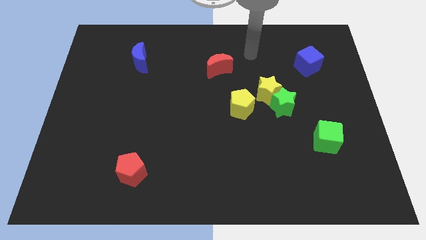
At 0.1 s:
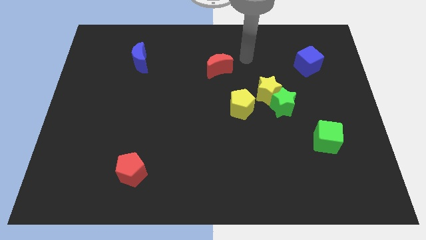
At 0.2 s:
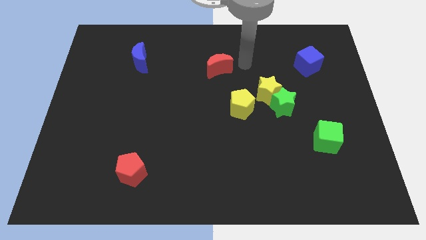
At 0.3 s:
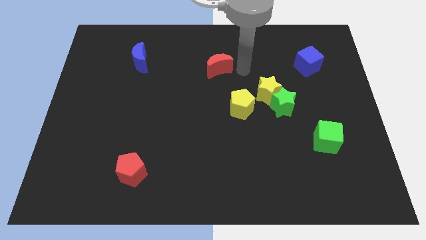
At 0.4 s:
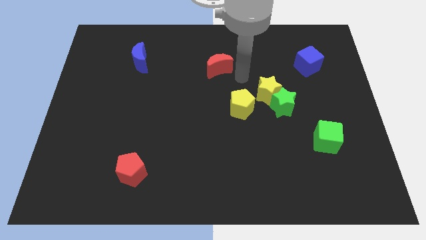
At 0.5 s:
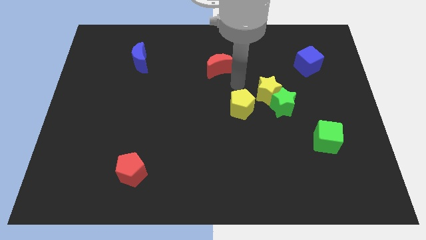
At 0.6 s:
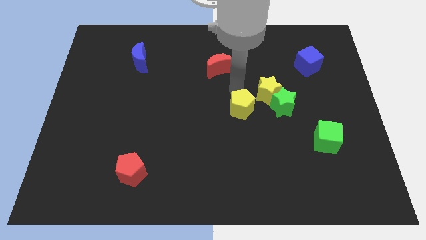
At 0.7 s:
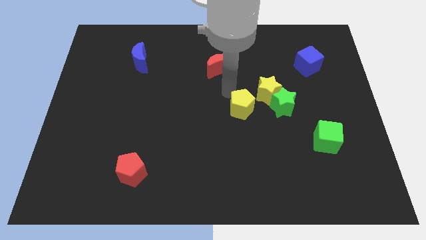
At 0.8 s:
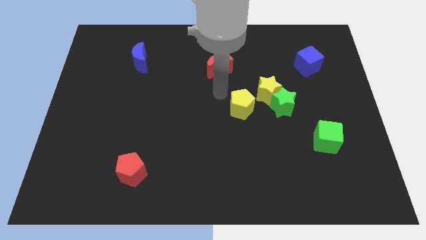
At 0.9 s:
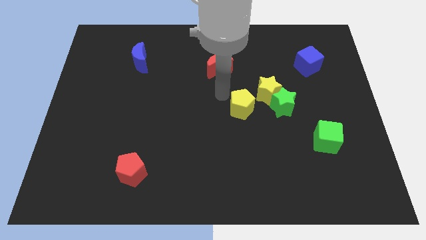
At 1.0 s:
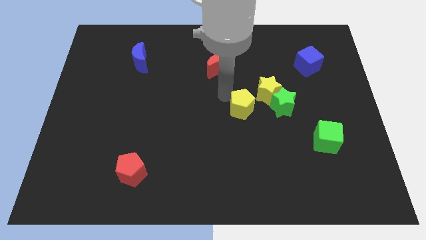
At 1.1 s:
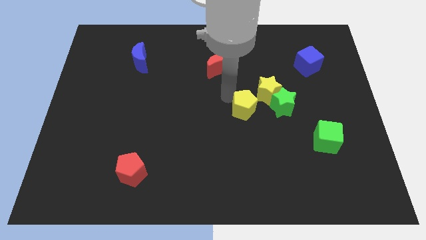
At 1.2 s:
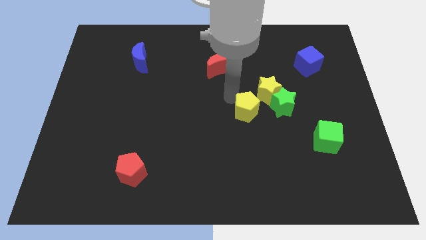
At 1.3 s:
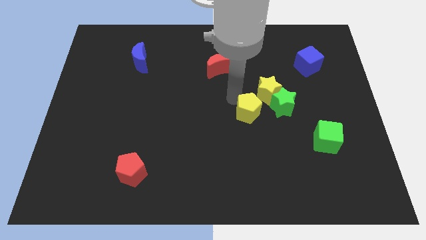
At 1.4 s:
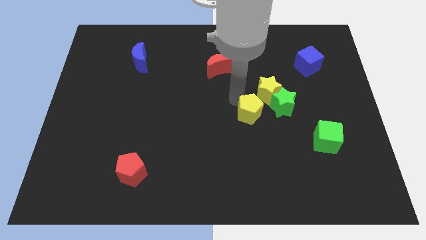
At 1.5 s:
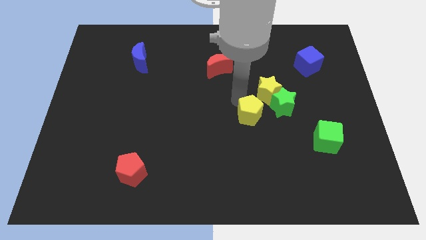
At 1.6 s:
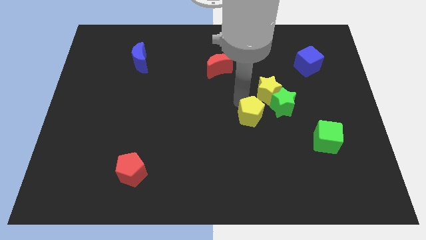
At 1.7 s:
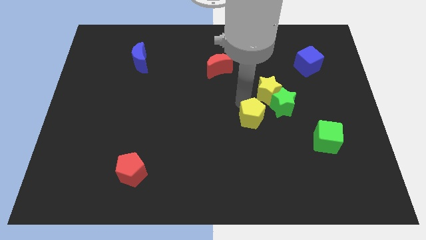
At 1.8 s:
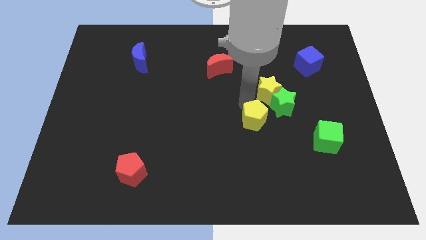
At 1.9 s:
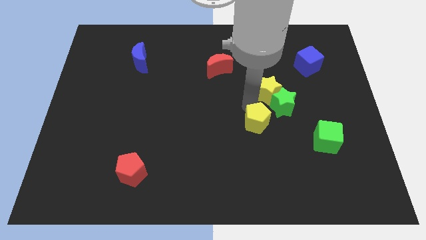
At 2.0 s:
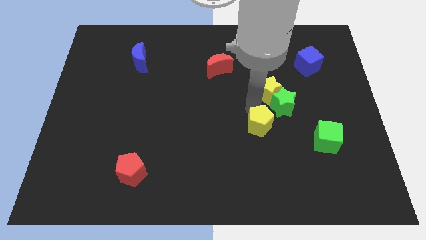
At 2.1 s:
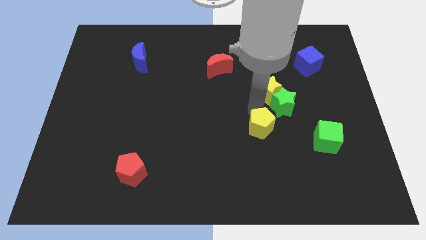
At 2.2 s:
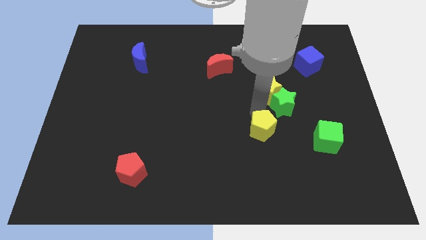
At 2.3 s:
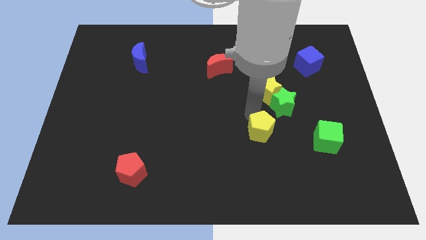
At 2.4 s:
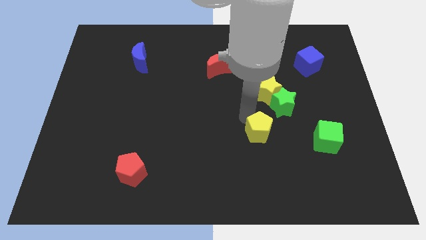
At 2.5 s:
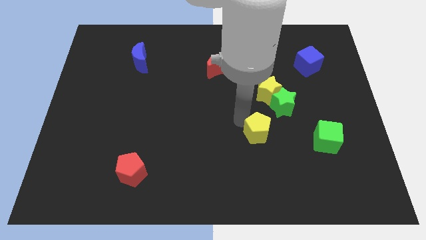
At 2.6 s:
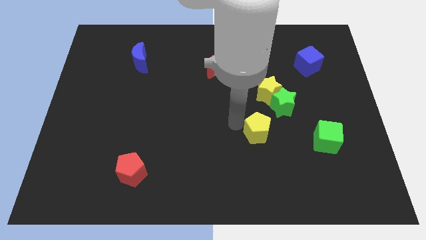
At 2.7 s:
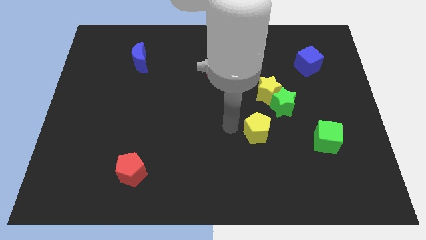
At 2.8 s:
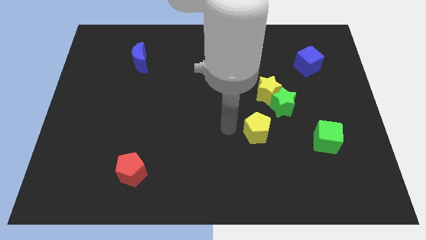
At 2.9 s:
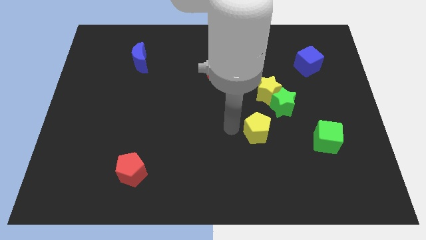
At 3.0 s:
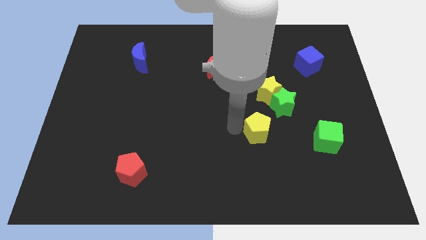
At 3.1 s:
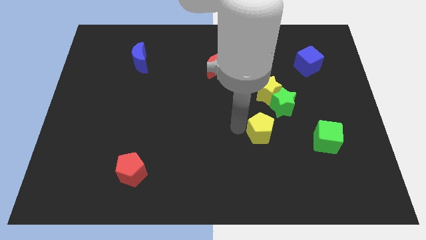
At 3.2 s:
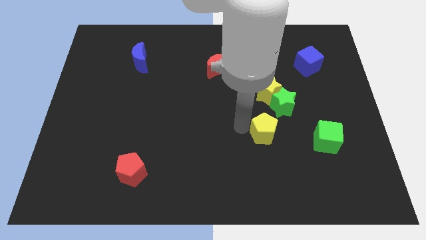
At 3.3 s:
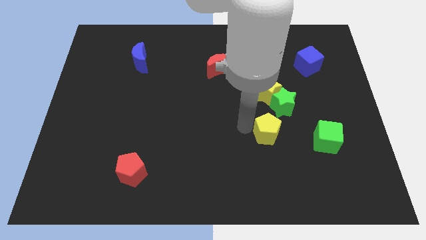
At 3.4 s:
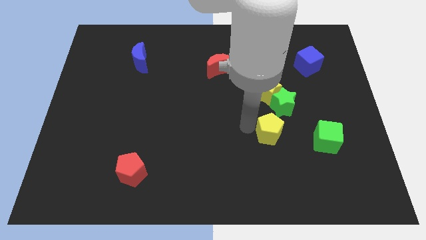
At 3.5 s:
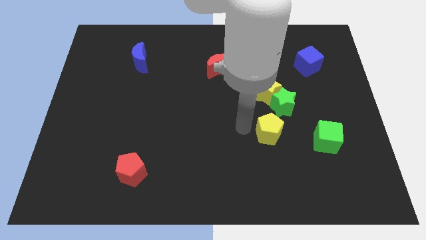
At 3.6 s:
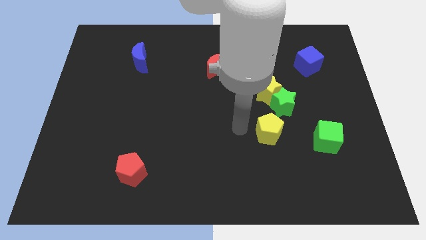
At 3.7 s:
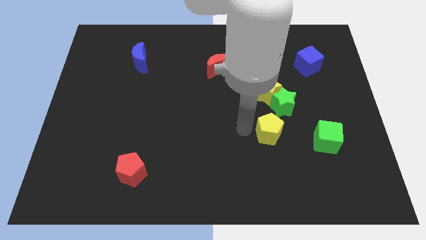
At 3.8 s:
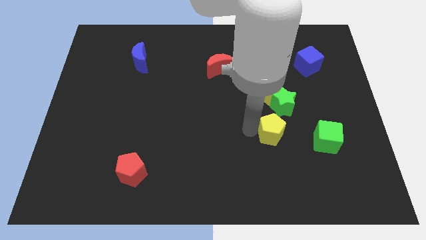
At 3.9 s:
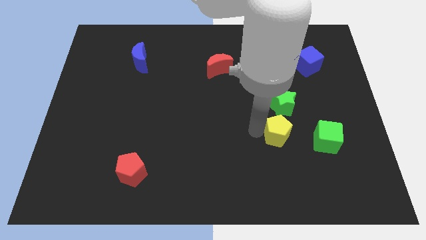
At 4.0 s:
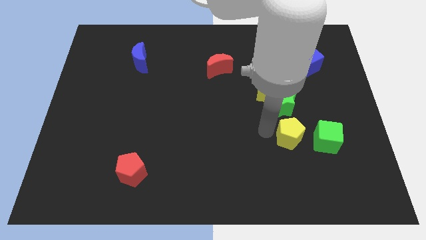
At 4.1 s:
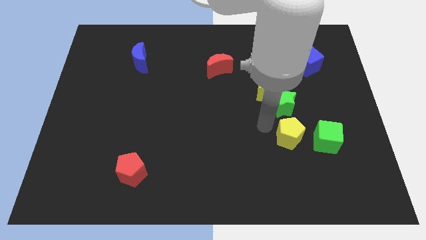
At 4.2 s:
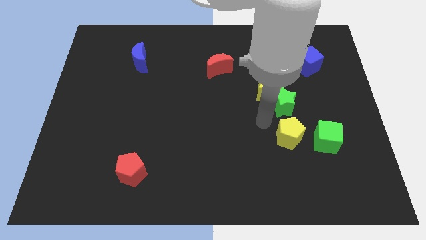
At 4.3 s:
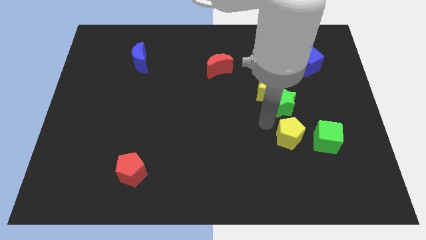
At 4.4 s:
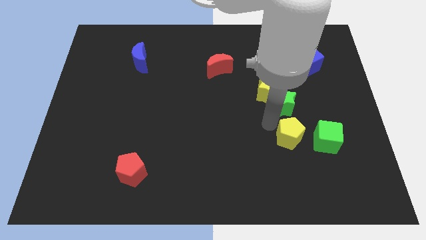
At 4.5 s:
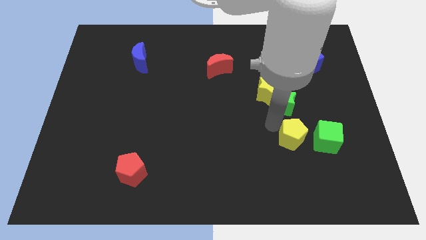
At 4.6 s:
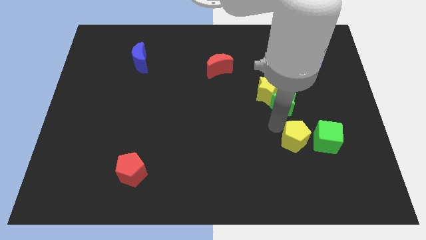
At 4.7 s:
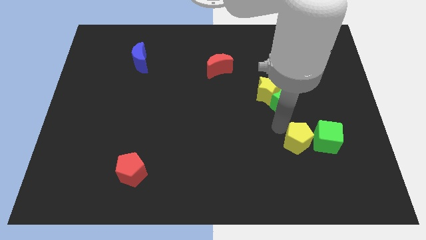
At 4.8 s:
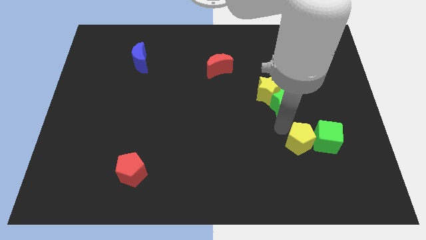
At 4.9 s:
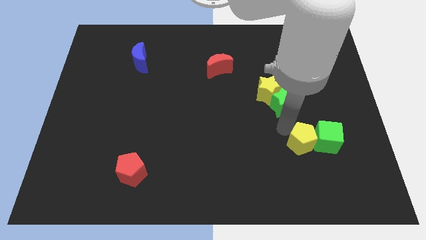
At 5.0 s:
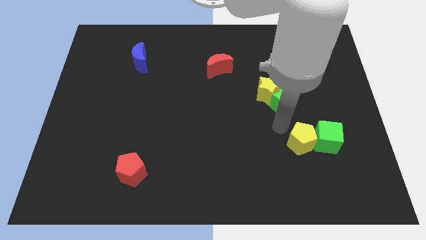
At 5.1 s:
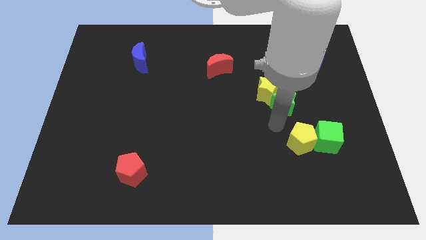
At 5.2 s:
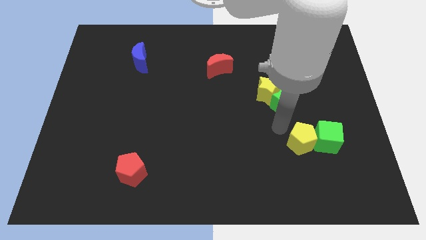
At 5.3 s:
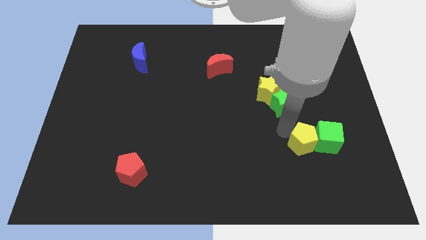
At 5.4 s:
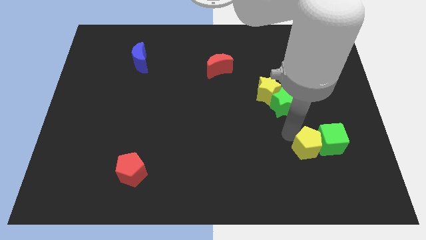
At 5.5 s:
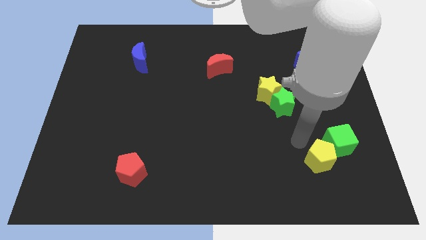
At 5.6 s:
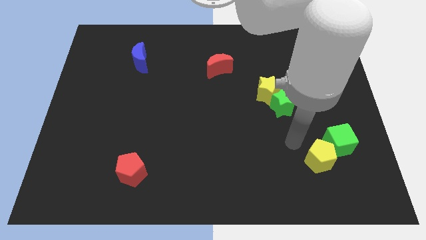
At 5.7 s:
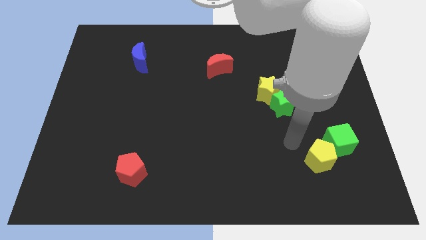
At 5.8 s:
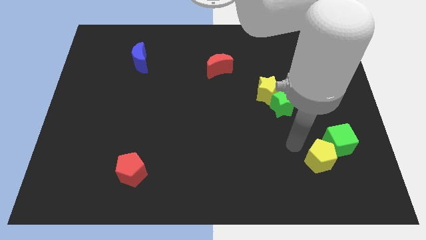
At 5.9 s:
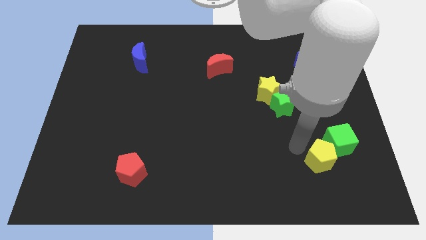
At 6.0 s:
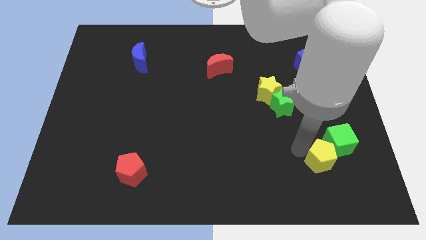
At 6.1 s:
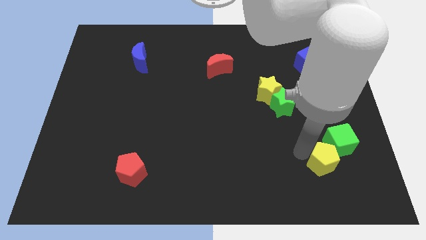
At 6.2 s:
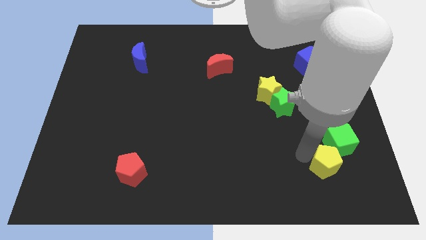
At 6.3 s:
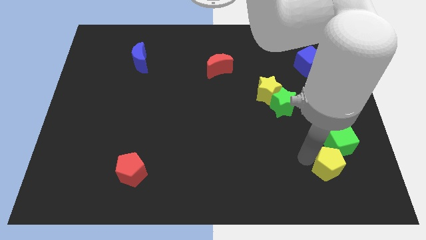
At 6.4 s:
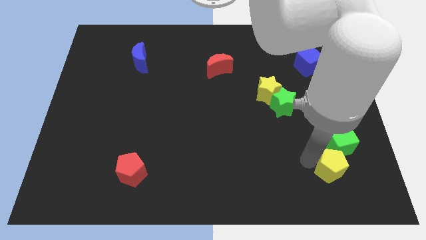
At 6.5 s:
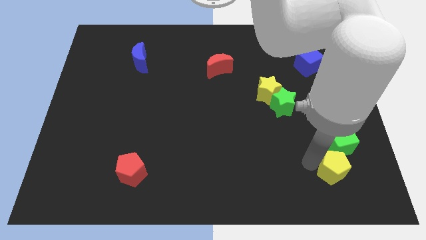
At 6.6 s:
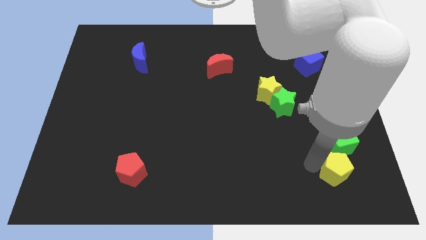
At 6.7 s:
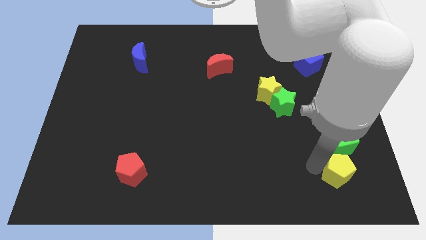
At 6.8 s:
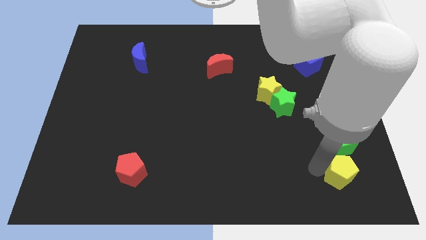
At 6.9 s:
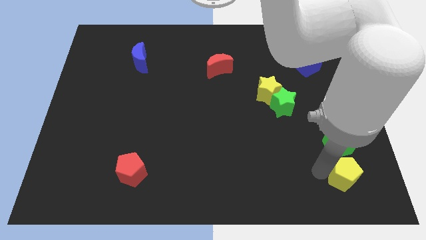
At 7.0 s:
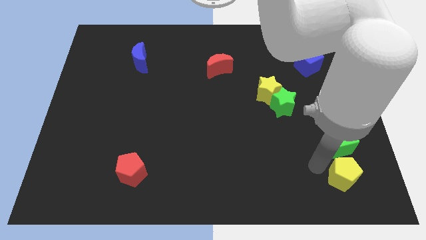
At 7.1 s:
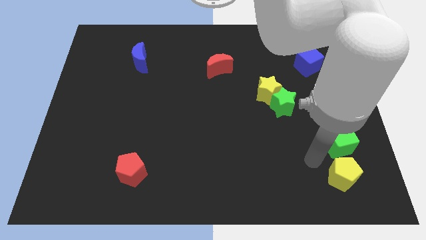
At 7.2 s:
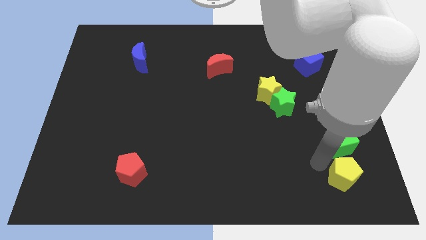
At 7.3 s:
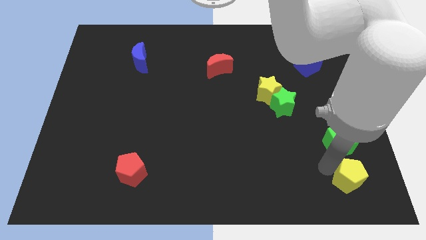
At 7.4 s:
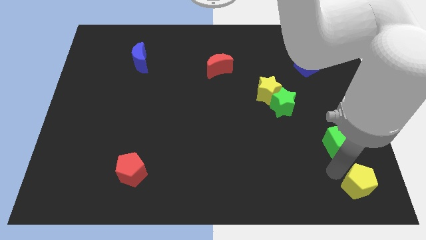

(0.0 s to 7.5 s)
put the yellow pentagon to the lower right corner
